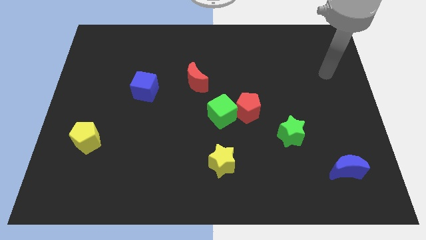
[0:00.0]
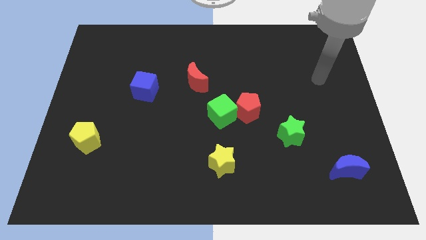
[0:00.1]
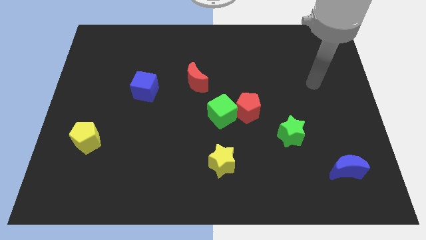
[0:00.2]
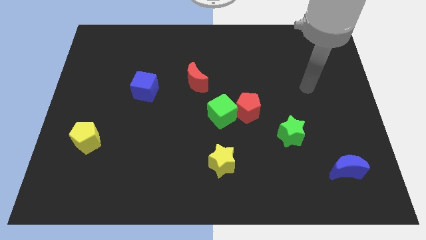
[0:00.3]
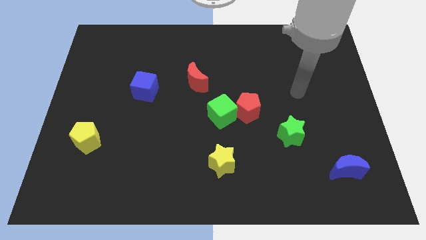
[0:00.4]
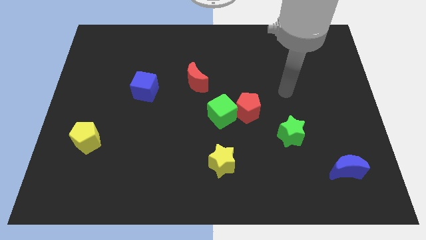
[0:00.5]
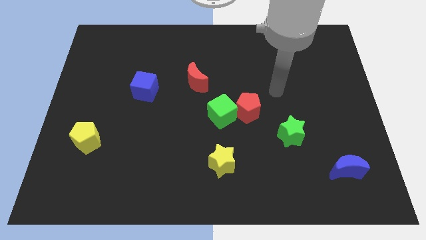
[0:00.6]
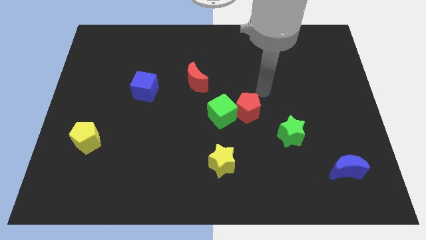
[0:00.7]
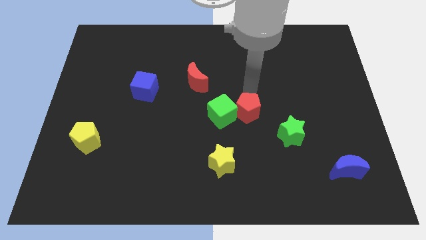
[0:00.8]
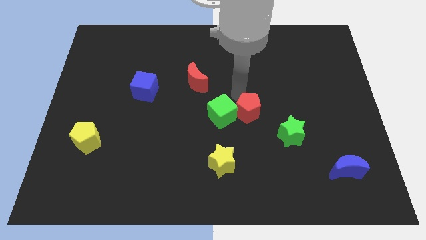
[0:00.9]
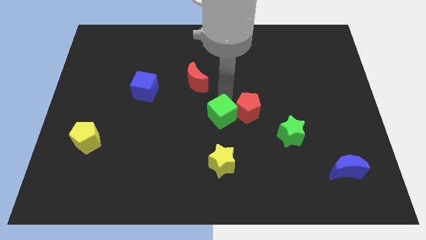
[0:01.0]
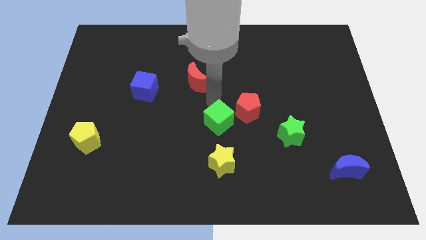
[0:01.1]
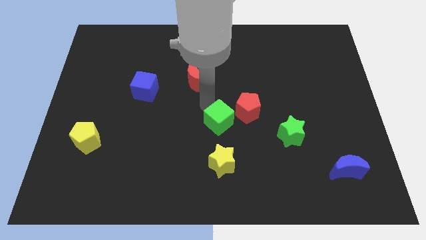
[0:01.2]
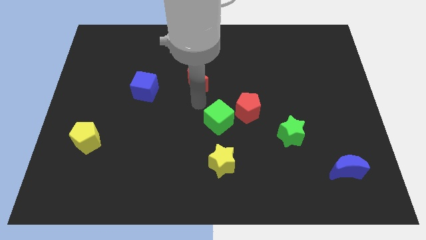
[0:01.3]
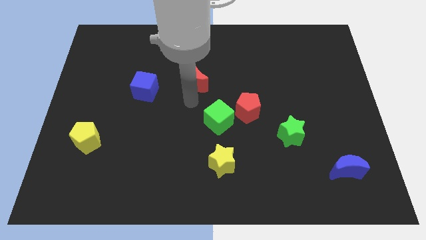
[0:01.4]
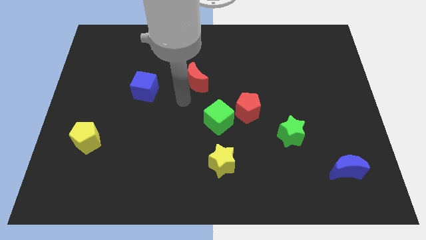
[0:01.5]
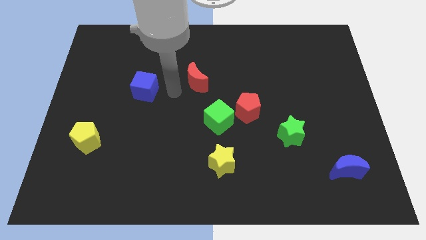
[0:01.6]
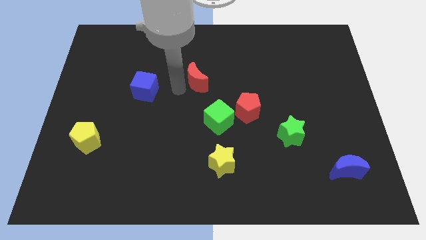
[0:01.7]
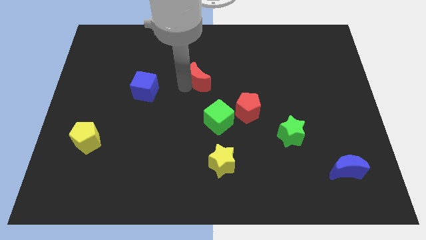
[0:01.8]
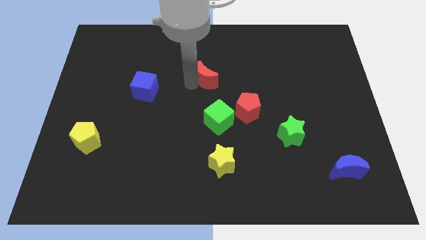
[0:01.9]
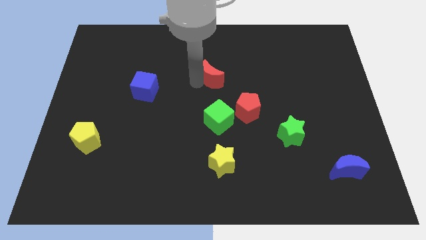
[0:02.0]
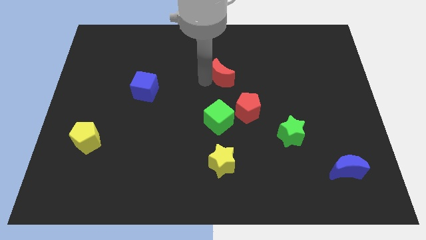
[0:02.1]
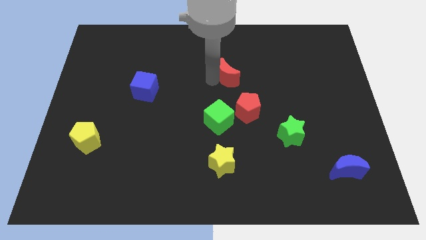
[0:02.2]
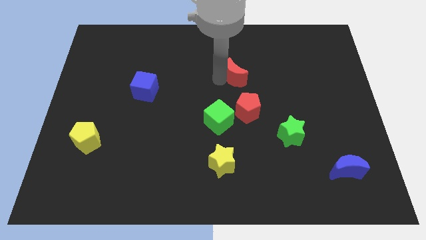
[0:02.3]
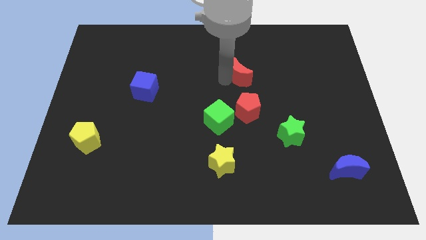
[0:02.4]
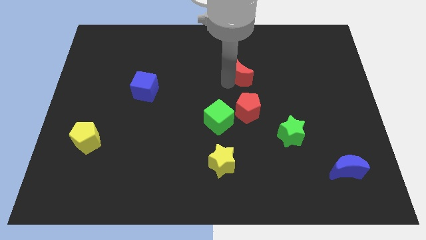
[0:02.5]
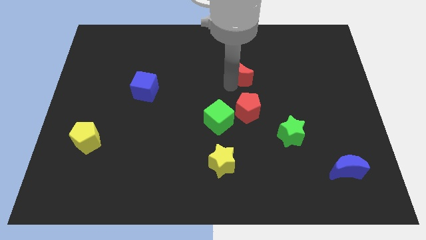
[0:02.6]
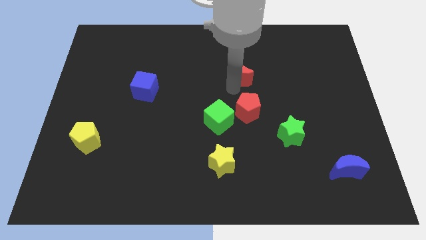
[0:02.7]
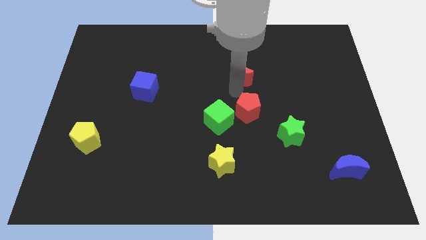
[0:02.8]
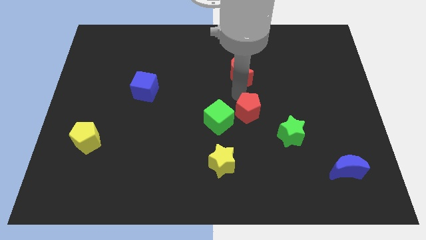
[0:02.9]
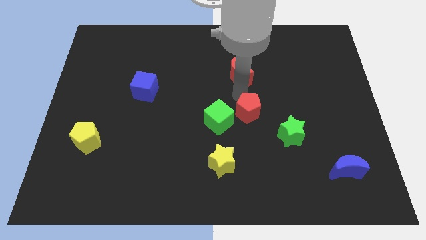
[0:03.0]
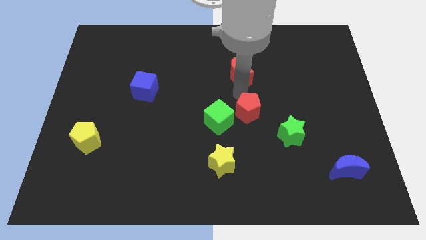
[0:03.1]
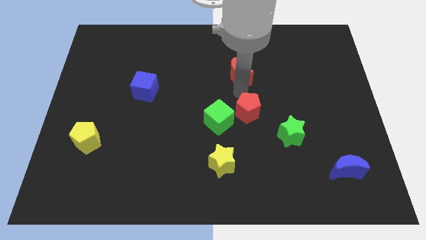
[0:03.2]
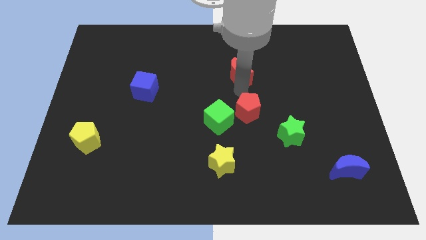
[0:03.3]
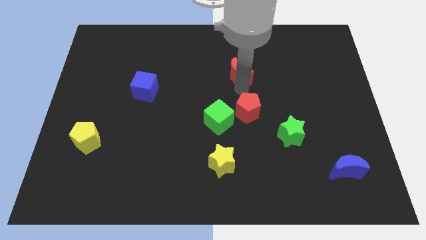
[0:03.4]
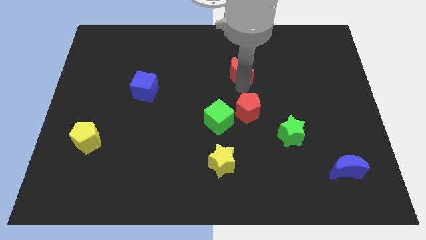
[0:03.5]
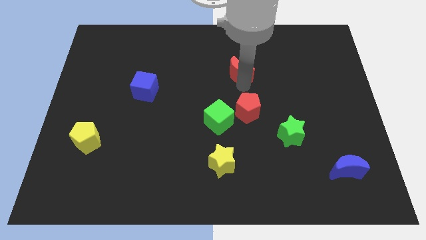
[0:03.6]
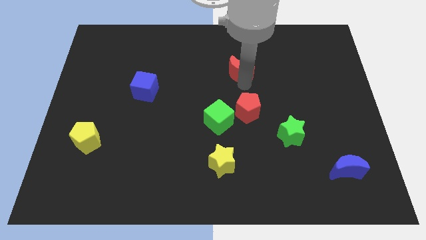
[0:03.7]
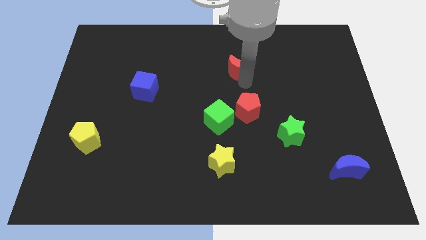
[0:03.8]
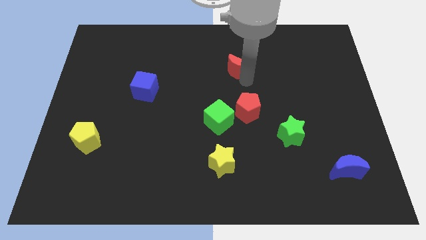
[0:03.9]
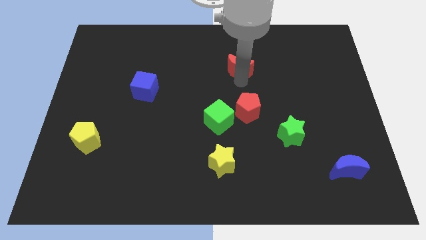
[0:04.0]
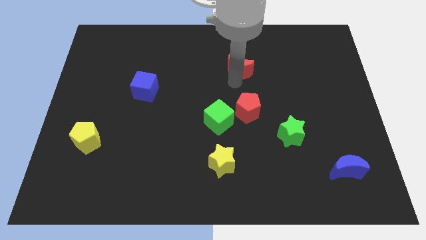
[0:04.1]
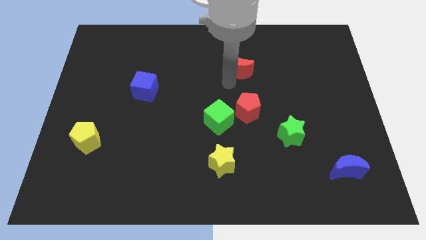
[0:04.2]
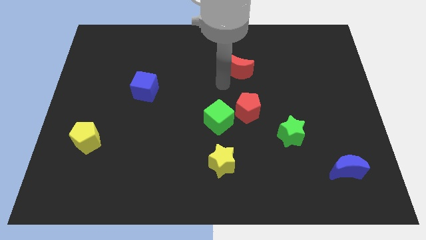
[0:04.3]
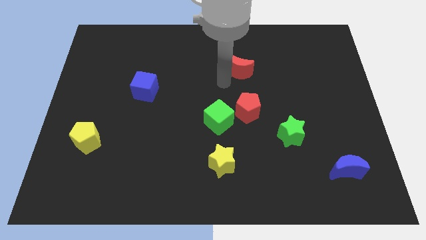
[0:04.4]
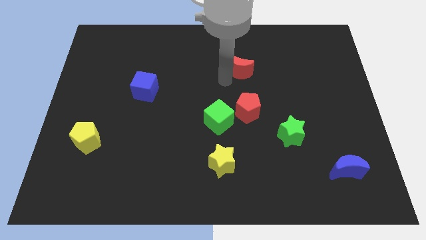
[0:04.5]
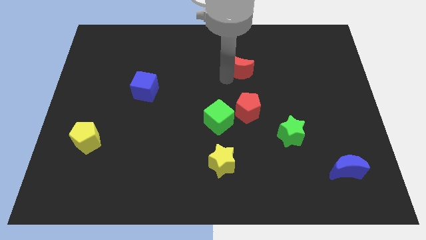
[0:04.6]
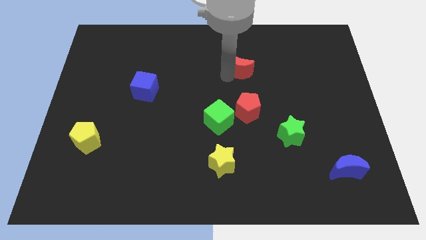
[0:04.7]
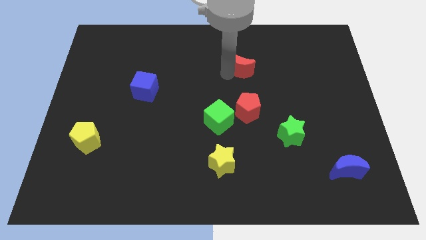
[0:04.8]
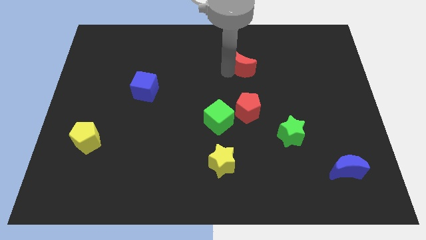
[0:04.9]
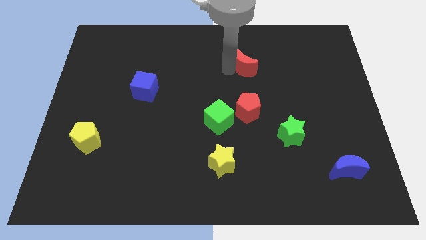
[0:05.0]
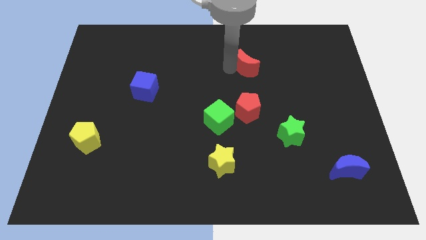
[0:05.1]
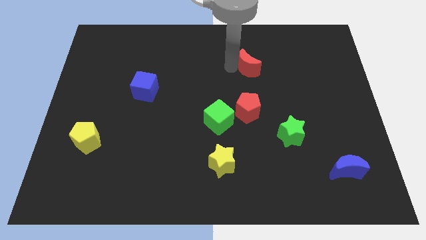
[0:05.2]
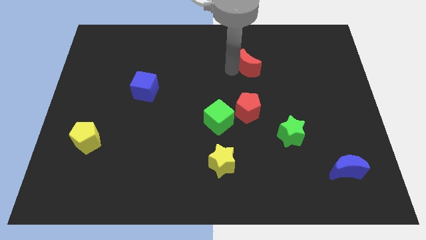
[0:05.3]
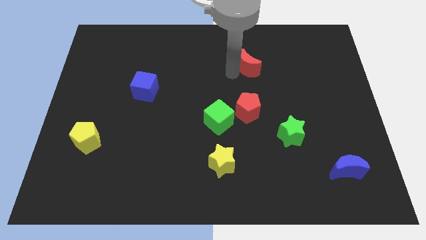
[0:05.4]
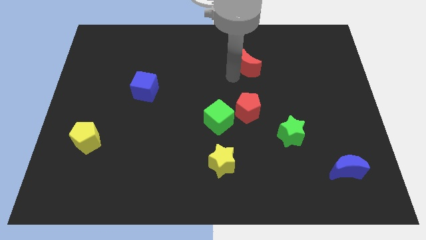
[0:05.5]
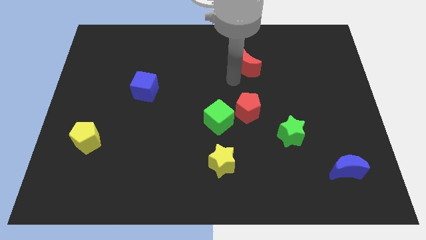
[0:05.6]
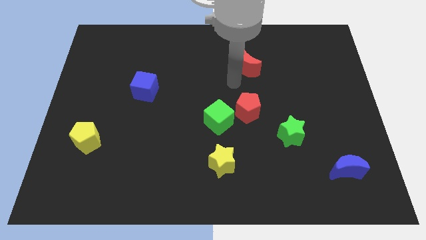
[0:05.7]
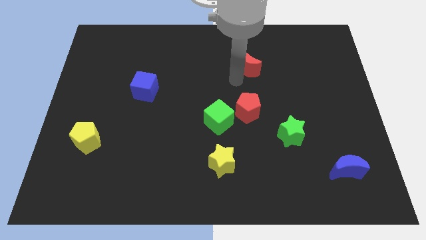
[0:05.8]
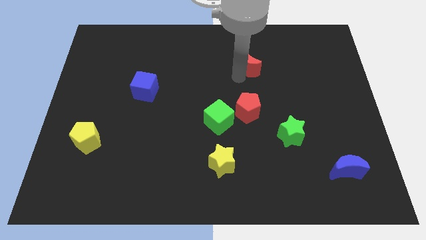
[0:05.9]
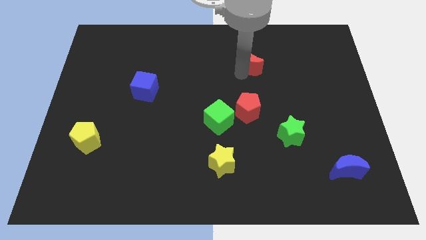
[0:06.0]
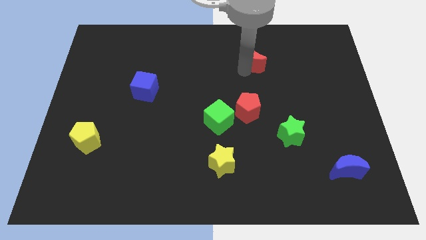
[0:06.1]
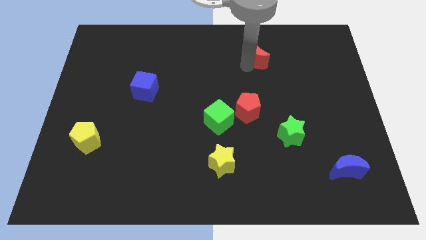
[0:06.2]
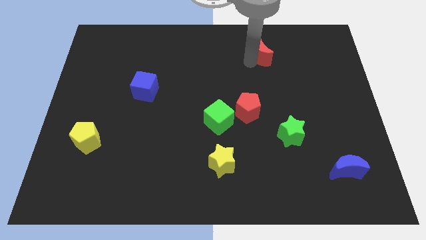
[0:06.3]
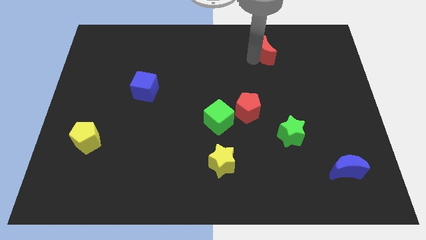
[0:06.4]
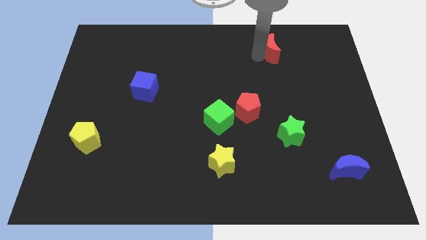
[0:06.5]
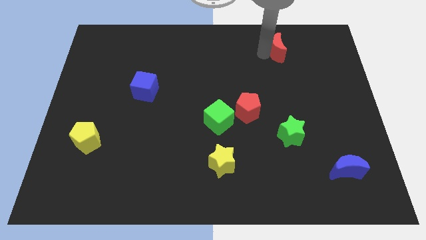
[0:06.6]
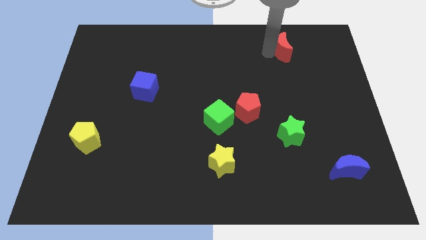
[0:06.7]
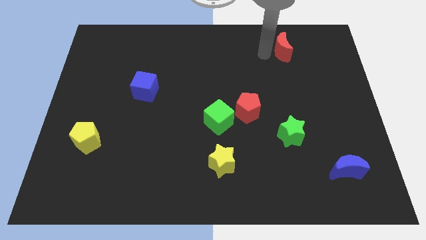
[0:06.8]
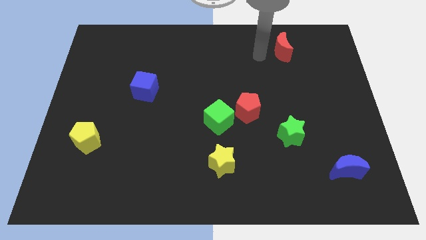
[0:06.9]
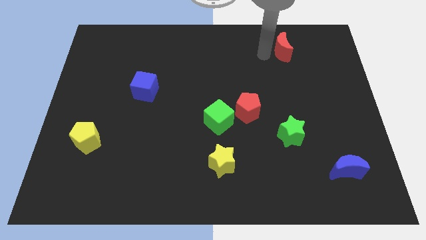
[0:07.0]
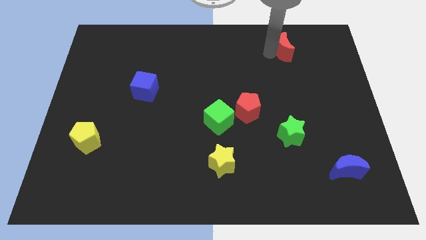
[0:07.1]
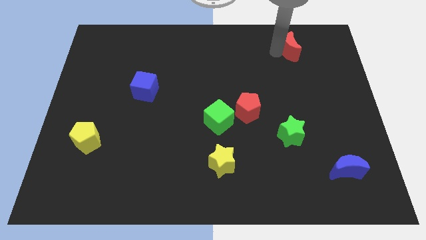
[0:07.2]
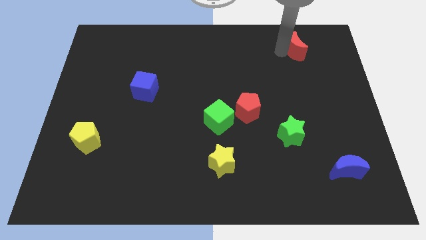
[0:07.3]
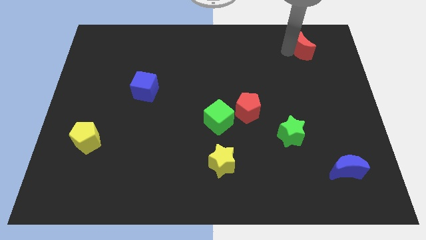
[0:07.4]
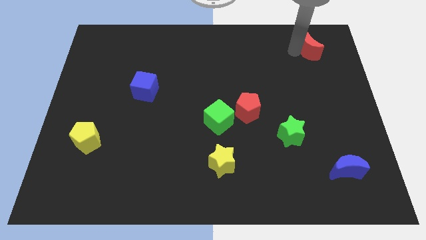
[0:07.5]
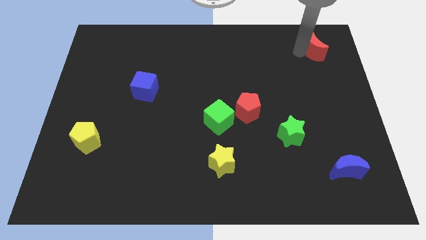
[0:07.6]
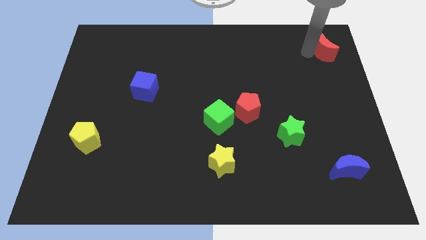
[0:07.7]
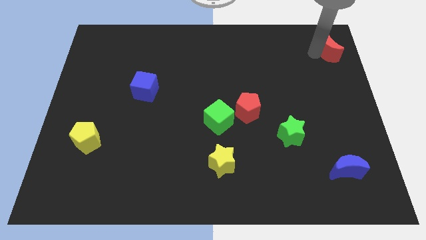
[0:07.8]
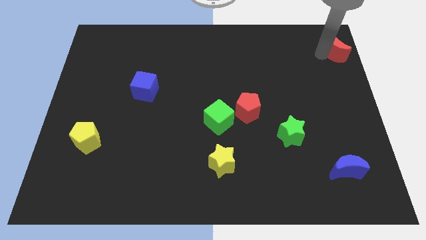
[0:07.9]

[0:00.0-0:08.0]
push the red moon to the top right of the board
